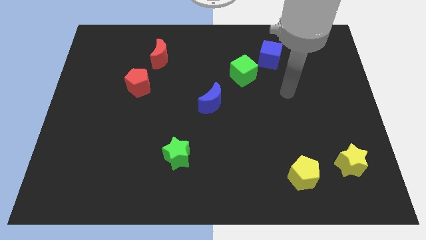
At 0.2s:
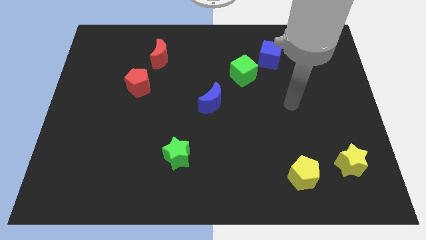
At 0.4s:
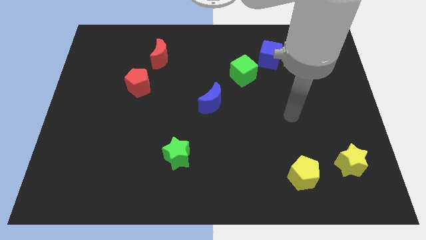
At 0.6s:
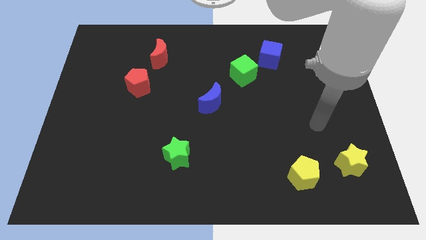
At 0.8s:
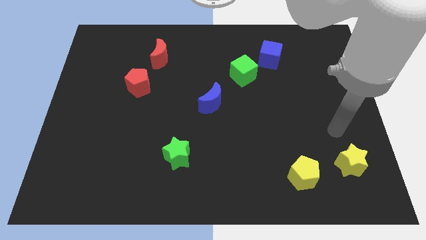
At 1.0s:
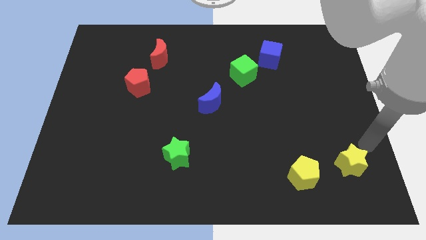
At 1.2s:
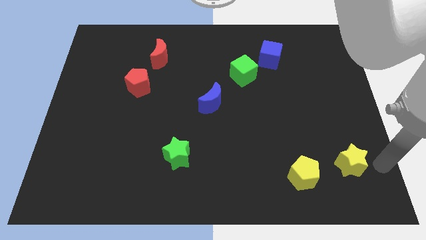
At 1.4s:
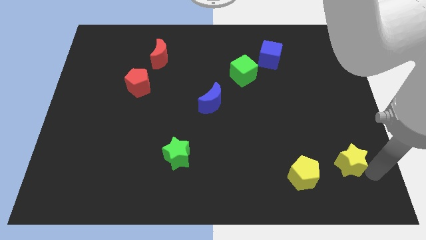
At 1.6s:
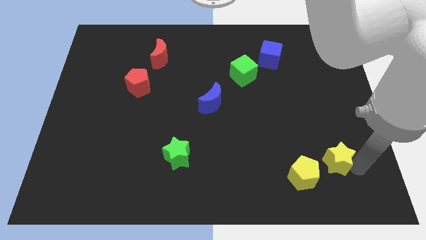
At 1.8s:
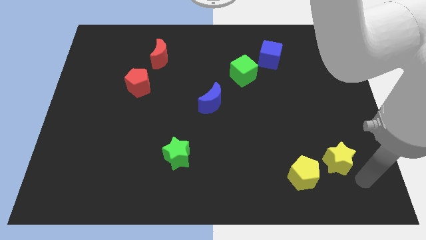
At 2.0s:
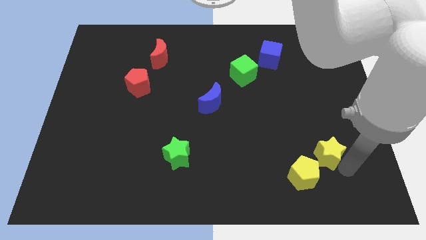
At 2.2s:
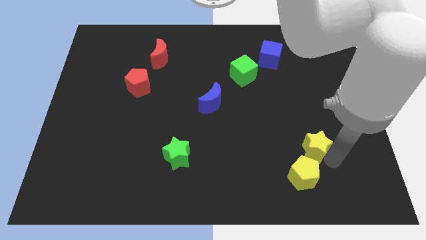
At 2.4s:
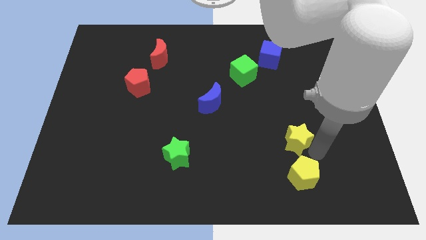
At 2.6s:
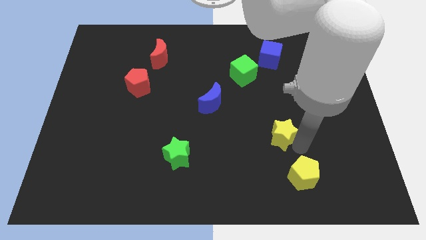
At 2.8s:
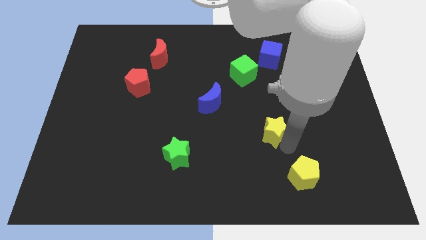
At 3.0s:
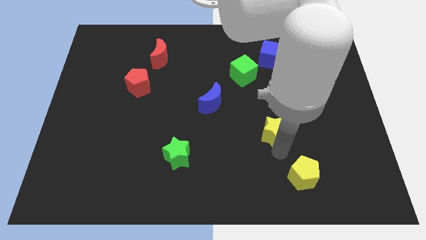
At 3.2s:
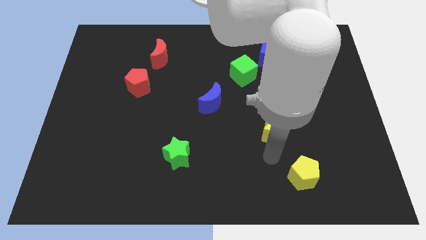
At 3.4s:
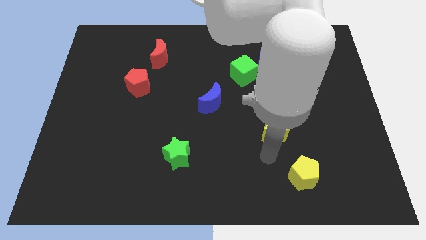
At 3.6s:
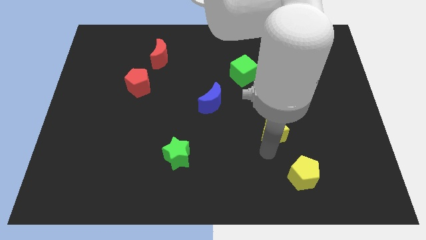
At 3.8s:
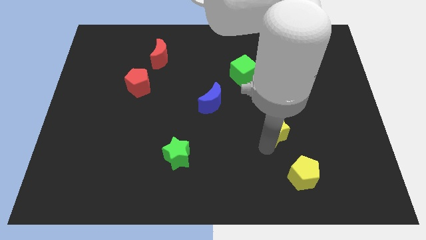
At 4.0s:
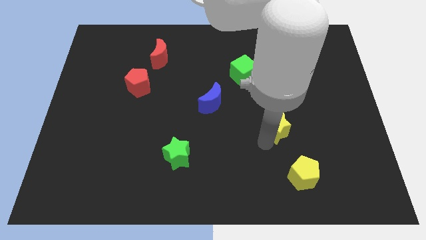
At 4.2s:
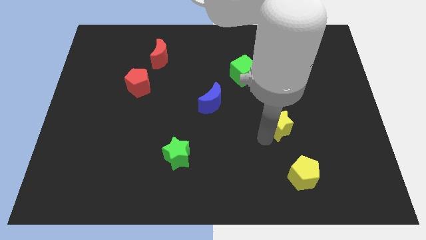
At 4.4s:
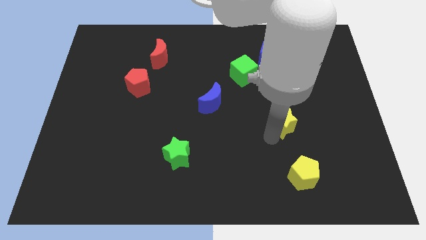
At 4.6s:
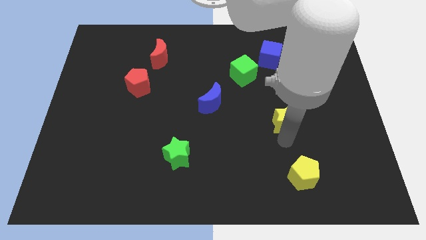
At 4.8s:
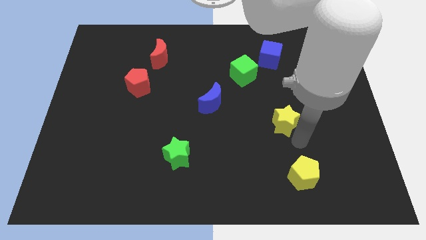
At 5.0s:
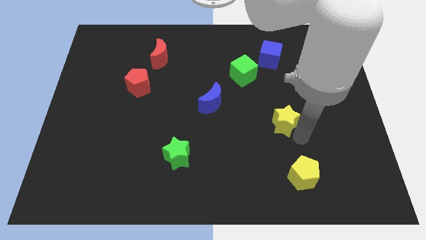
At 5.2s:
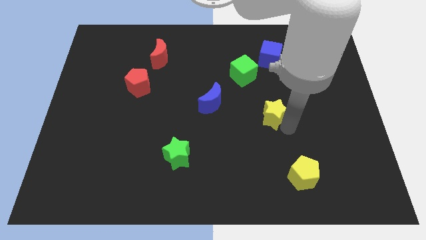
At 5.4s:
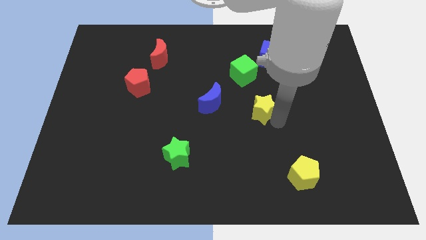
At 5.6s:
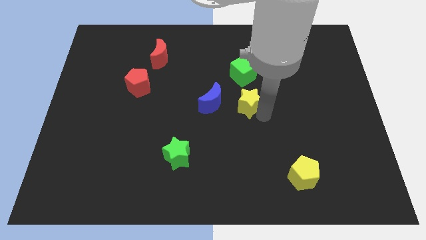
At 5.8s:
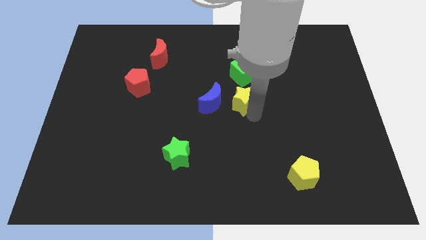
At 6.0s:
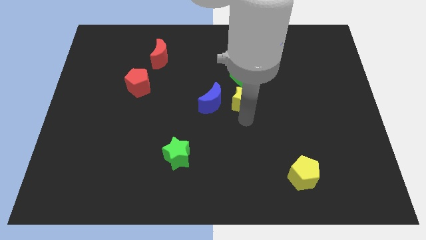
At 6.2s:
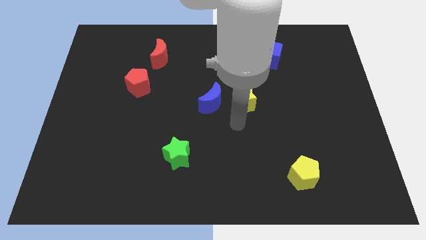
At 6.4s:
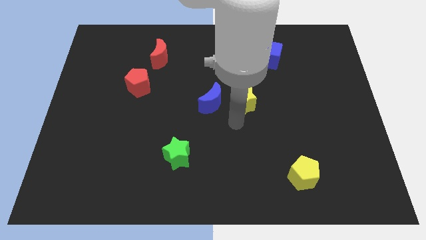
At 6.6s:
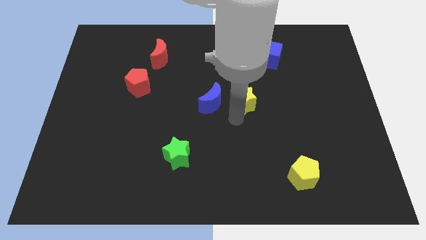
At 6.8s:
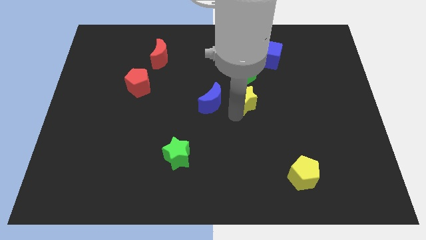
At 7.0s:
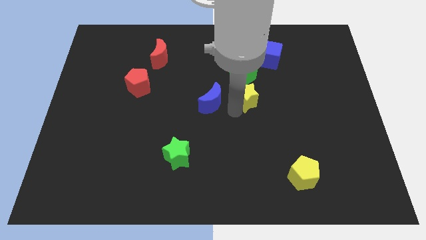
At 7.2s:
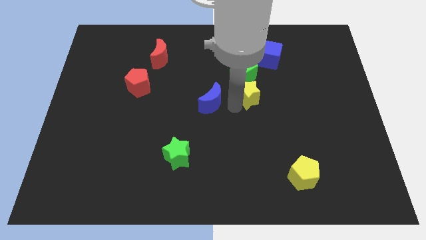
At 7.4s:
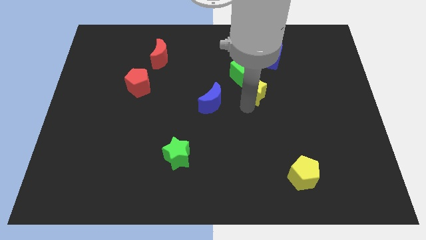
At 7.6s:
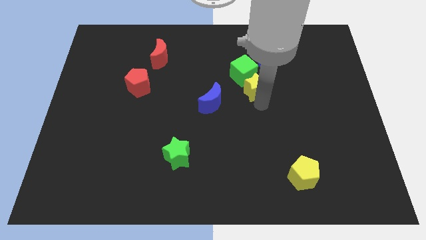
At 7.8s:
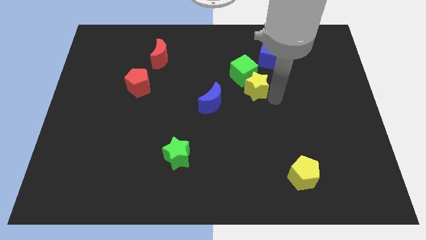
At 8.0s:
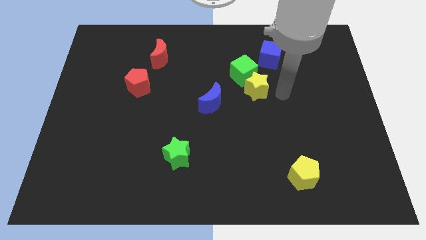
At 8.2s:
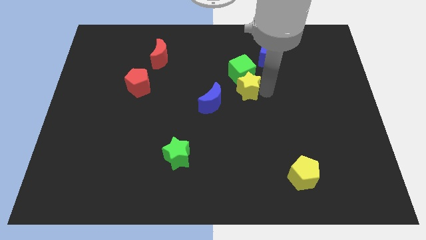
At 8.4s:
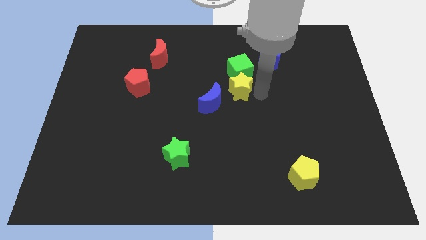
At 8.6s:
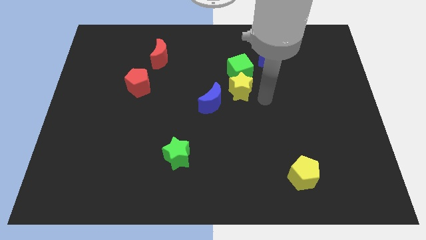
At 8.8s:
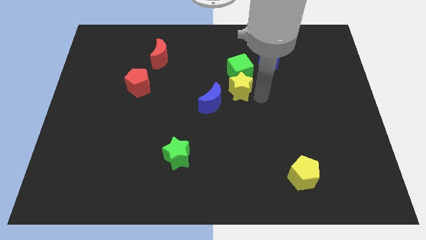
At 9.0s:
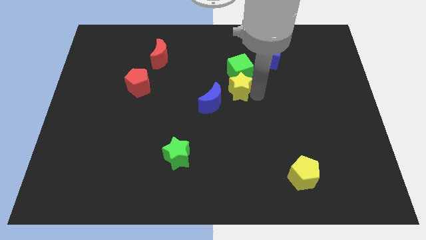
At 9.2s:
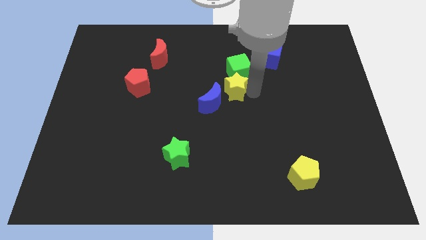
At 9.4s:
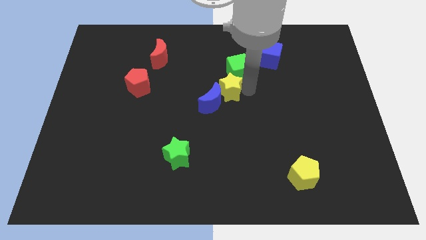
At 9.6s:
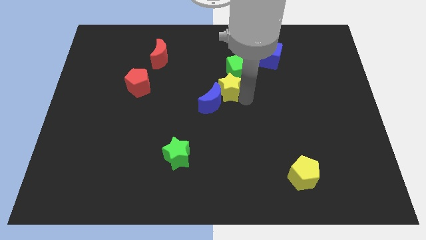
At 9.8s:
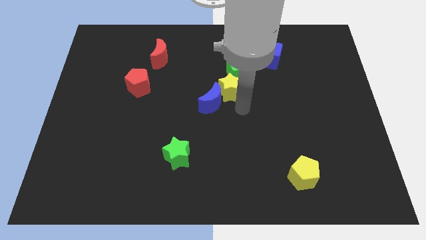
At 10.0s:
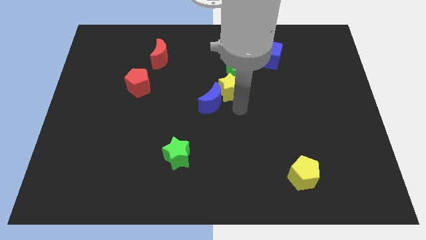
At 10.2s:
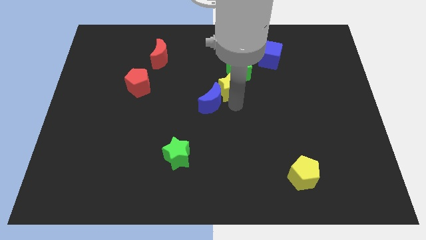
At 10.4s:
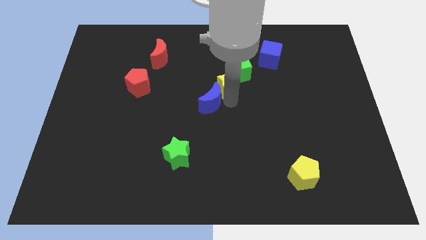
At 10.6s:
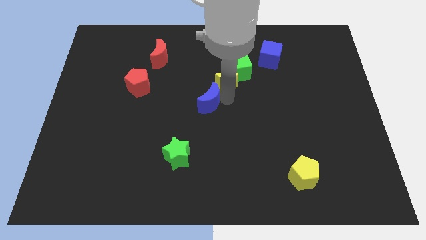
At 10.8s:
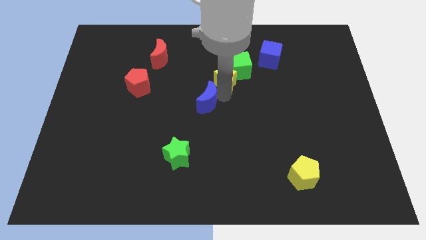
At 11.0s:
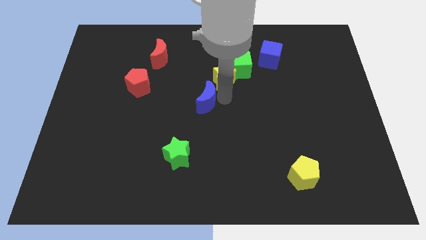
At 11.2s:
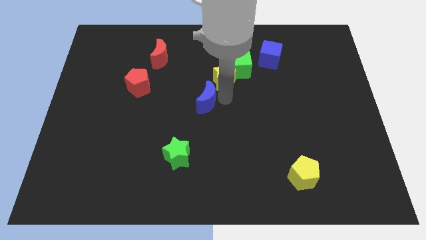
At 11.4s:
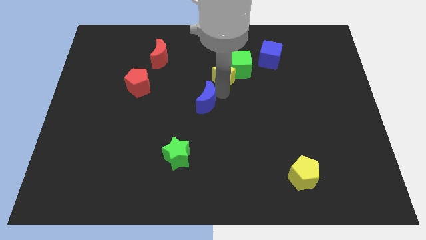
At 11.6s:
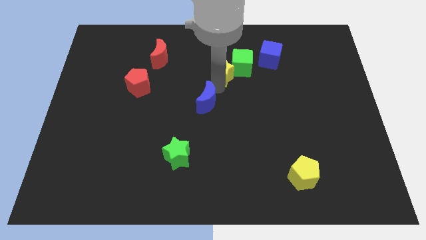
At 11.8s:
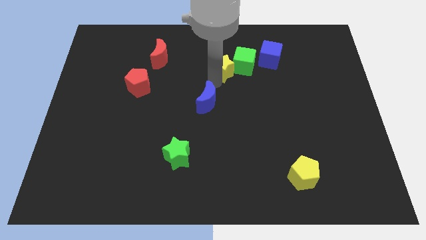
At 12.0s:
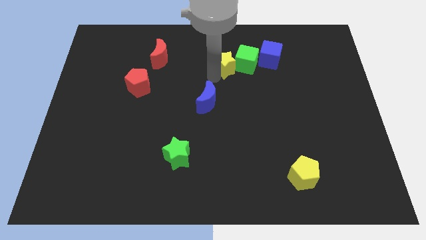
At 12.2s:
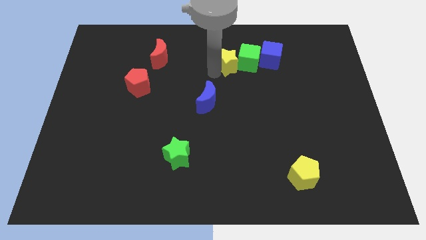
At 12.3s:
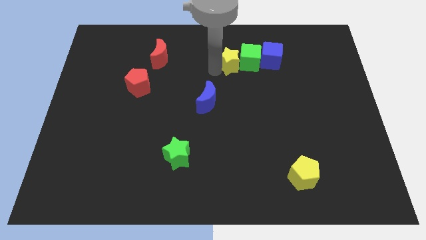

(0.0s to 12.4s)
put the yellow star diagonally up and to the left of the green cube
